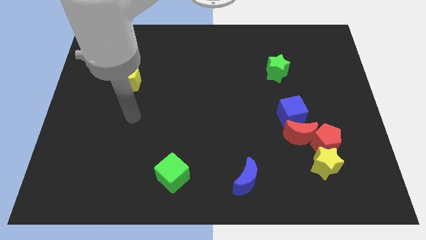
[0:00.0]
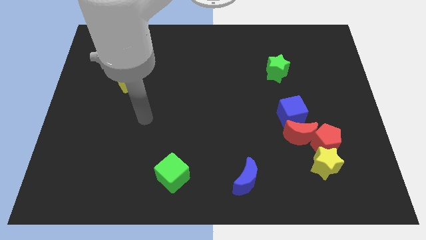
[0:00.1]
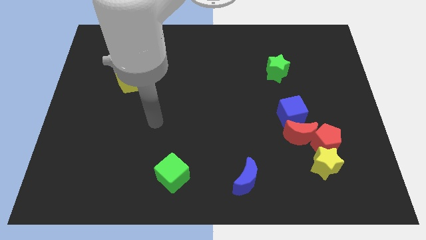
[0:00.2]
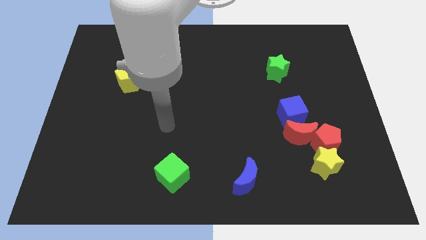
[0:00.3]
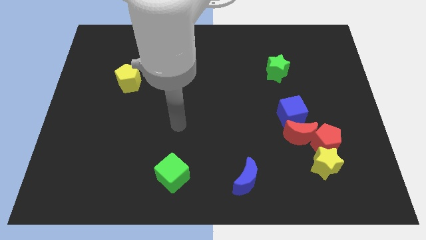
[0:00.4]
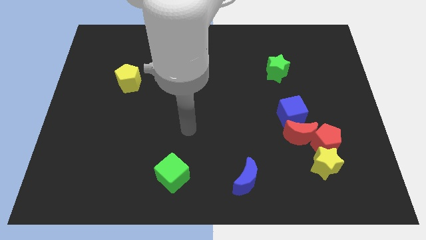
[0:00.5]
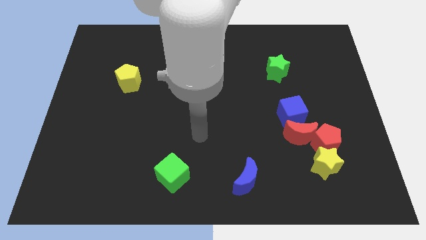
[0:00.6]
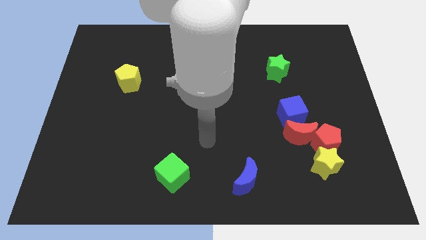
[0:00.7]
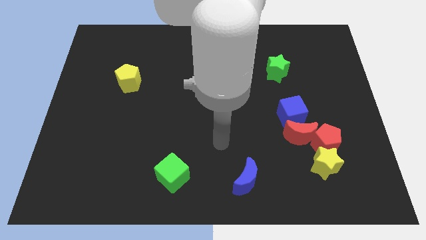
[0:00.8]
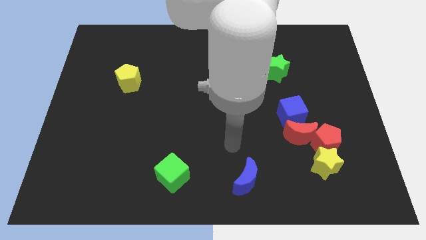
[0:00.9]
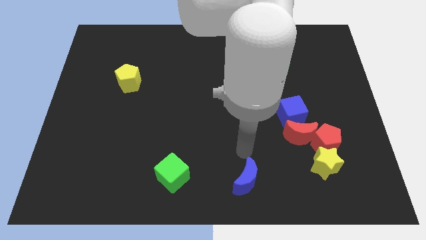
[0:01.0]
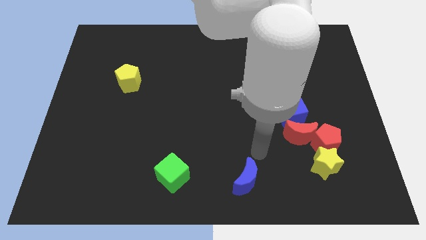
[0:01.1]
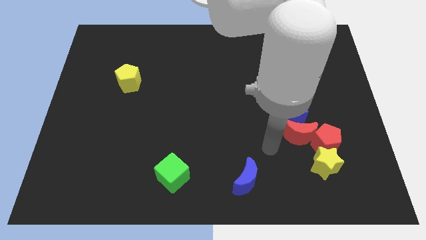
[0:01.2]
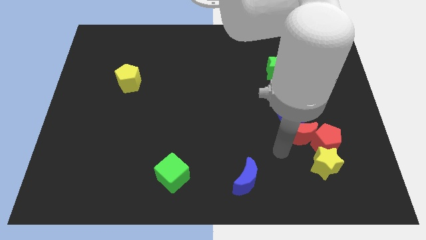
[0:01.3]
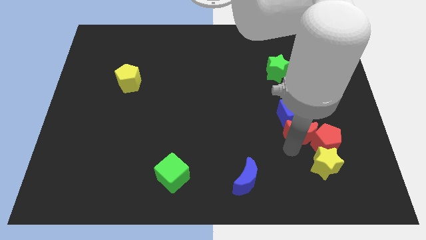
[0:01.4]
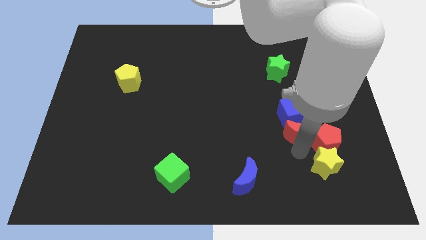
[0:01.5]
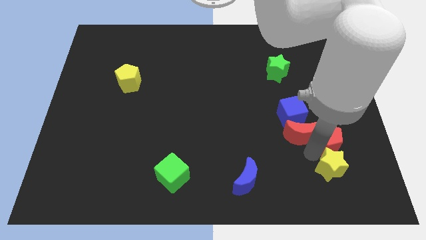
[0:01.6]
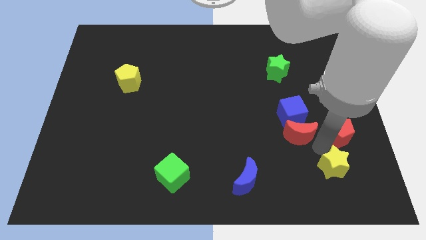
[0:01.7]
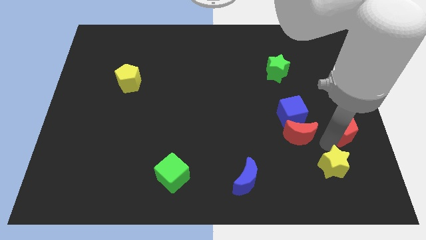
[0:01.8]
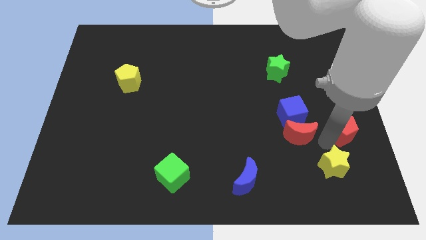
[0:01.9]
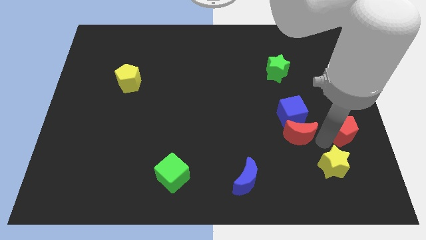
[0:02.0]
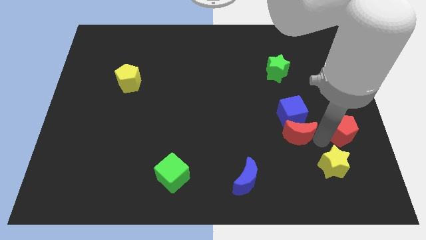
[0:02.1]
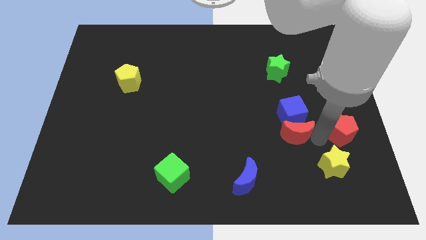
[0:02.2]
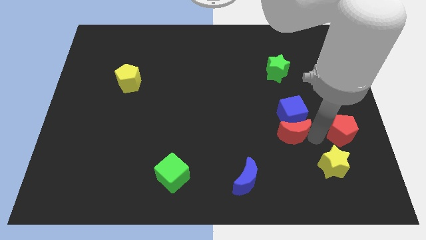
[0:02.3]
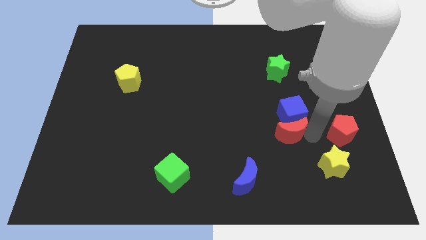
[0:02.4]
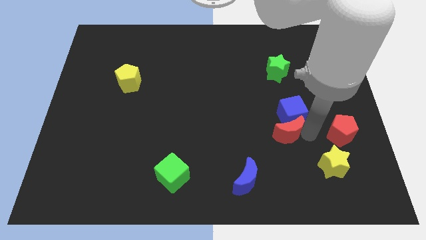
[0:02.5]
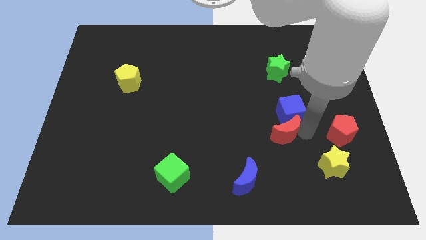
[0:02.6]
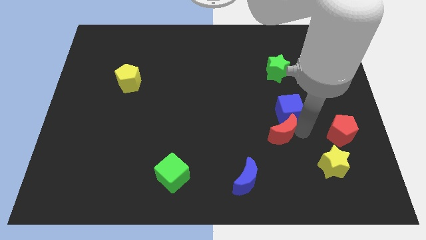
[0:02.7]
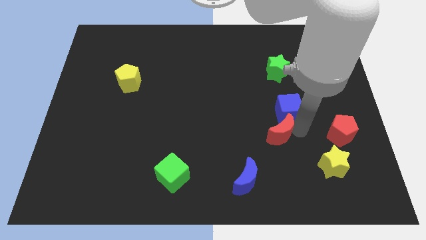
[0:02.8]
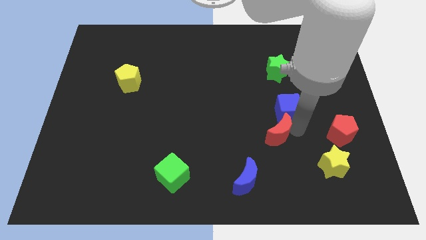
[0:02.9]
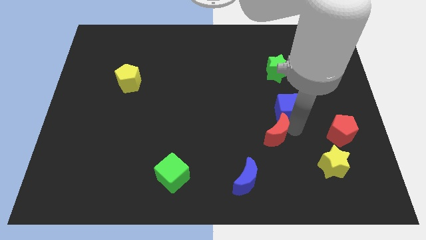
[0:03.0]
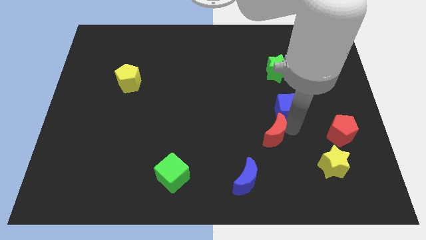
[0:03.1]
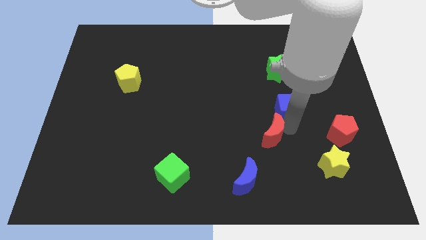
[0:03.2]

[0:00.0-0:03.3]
pull the red moon apart from the red pentagon, blue cube, and yellow star

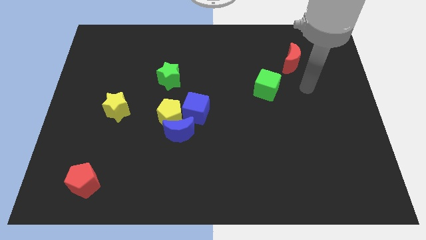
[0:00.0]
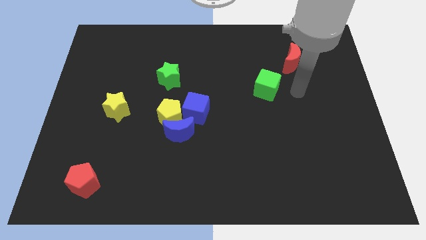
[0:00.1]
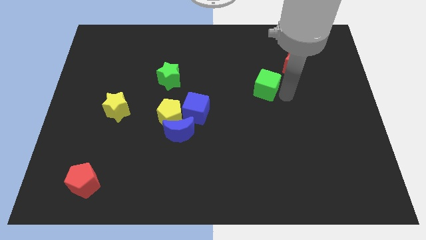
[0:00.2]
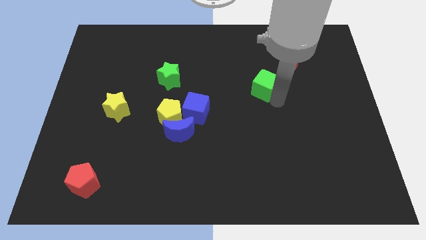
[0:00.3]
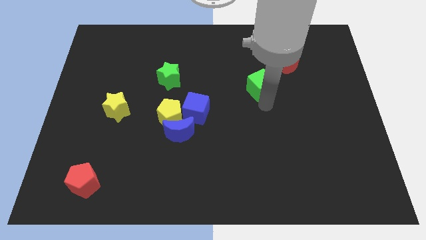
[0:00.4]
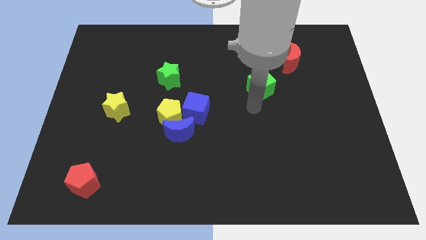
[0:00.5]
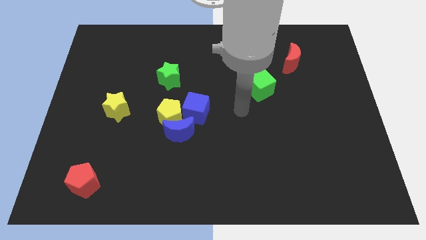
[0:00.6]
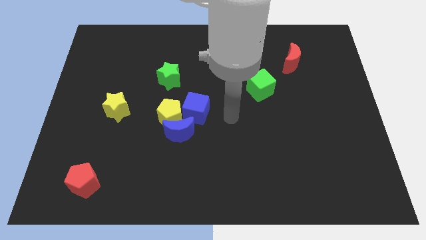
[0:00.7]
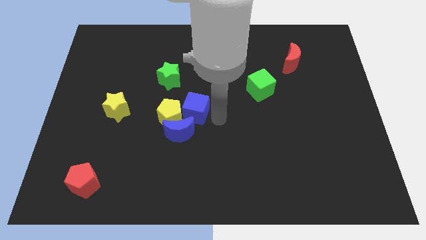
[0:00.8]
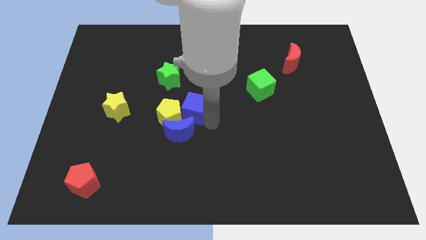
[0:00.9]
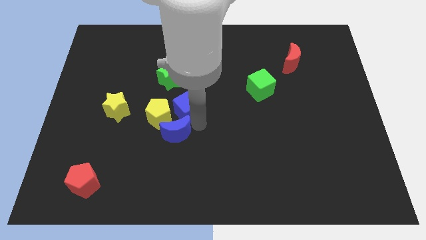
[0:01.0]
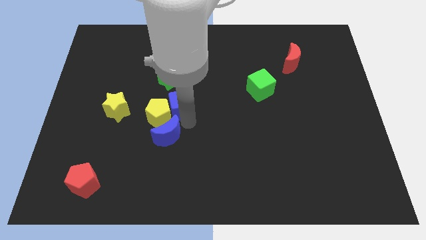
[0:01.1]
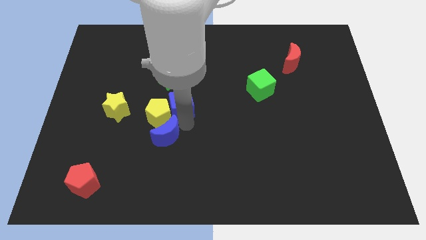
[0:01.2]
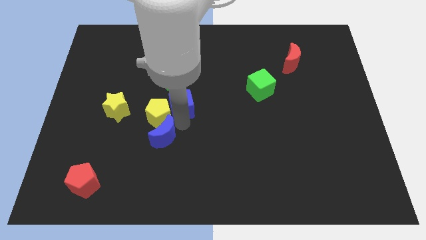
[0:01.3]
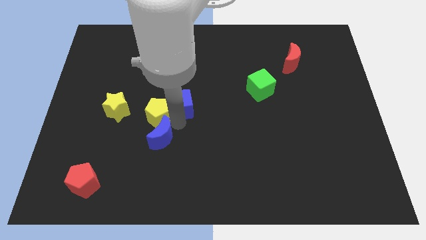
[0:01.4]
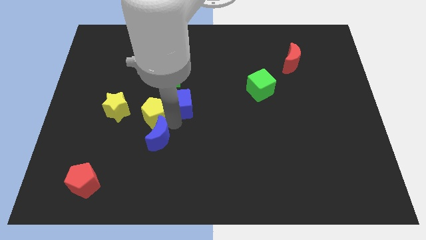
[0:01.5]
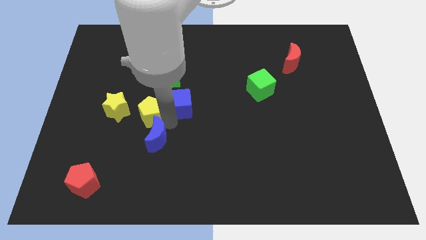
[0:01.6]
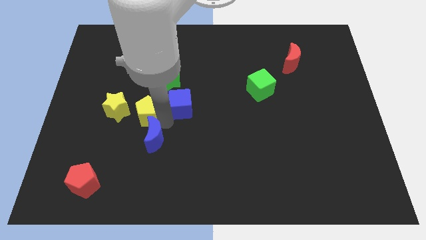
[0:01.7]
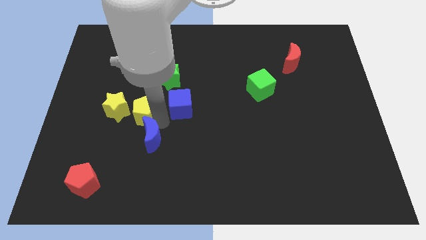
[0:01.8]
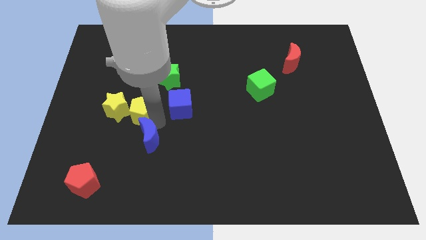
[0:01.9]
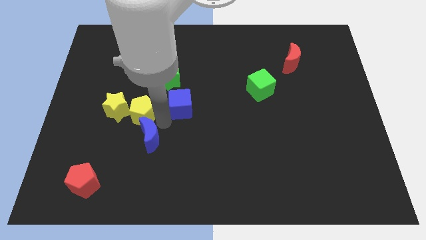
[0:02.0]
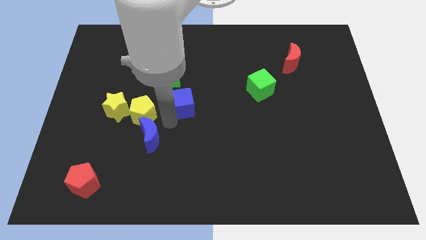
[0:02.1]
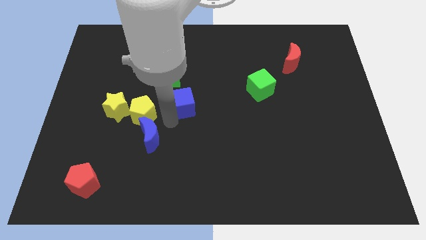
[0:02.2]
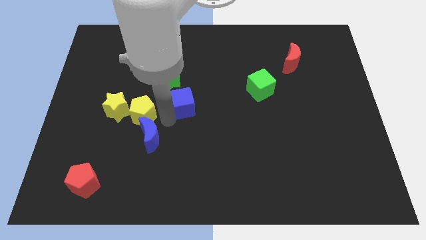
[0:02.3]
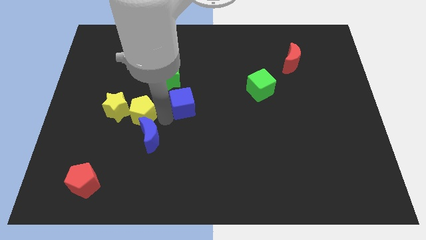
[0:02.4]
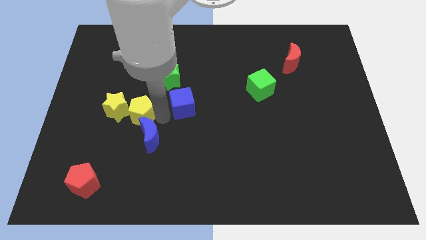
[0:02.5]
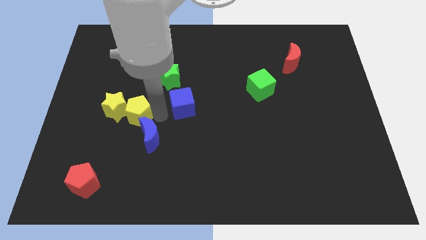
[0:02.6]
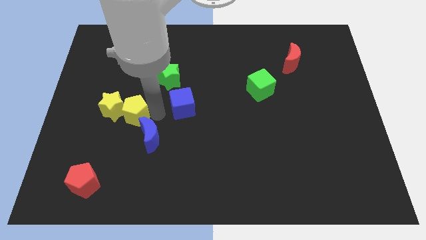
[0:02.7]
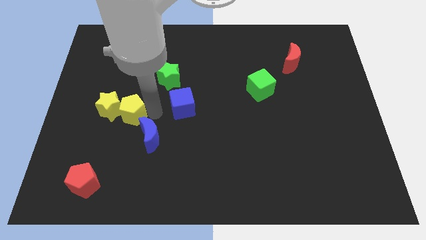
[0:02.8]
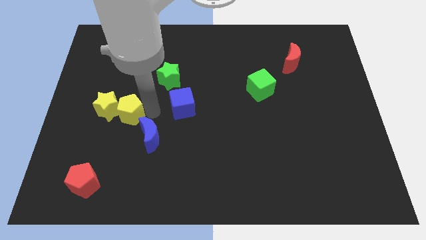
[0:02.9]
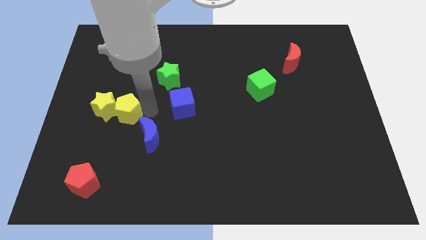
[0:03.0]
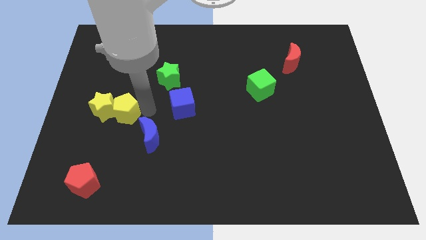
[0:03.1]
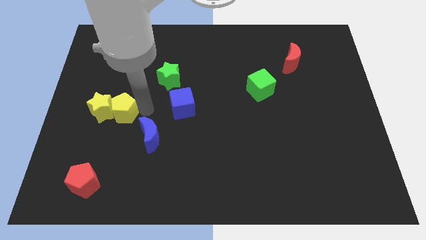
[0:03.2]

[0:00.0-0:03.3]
pull the yellow pentagon apart from the blue moon and blue cube

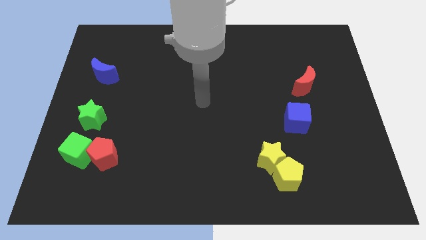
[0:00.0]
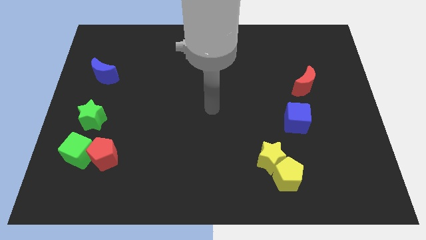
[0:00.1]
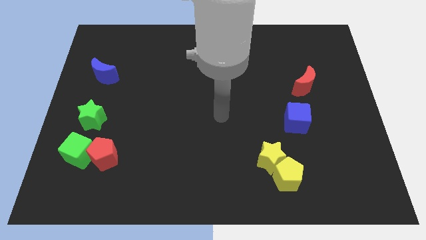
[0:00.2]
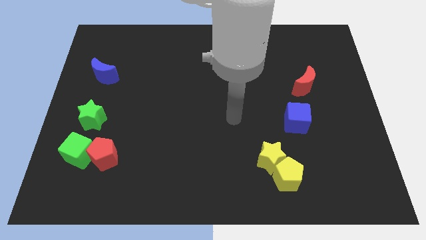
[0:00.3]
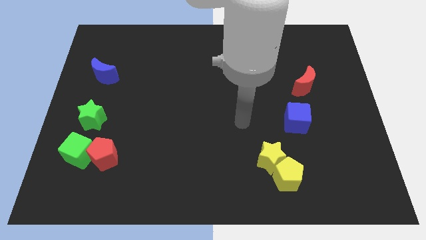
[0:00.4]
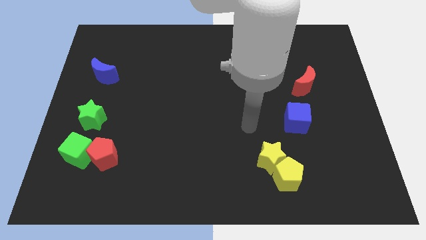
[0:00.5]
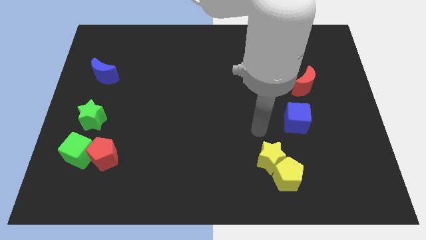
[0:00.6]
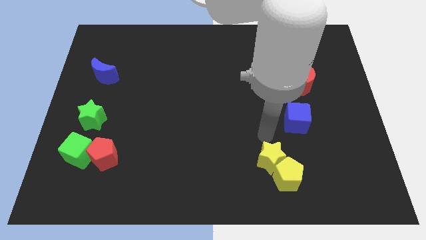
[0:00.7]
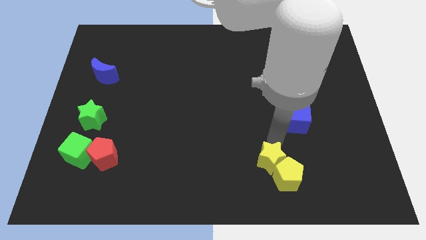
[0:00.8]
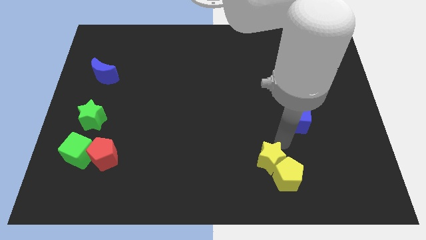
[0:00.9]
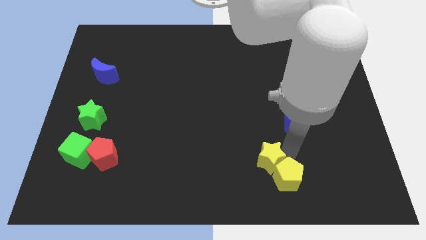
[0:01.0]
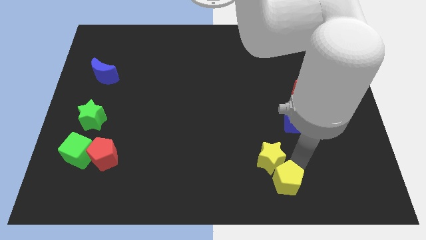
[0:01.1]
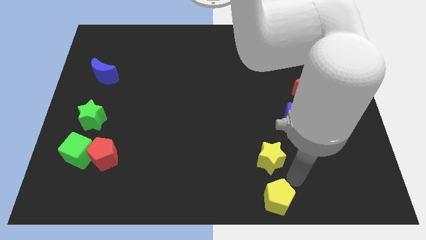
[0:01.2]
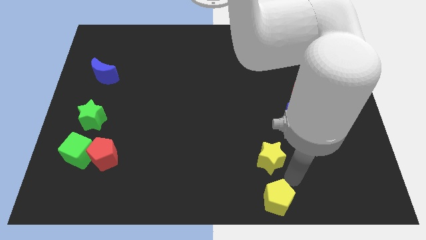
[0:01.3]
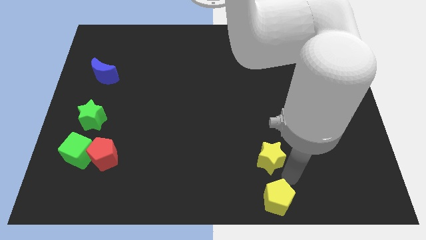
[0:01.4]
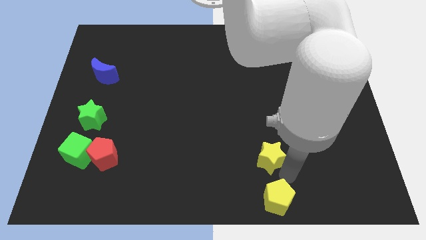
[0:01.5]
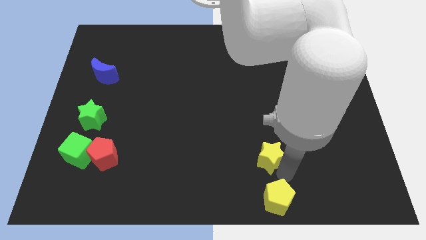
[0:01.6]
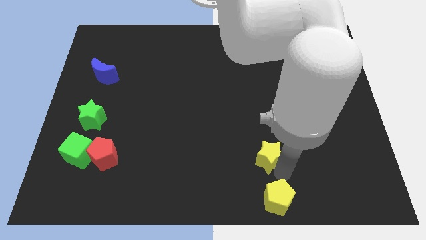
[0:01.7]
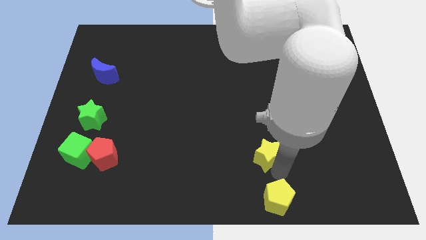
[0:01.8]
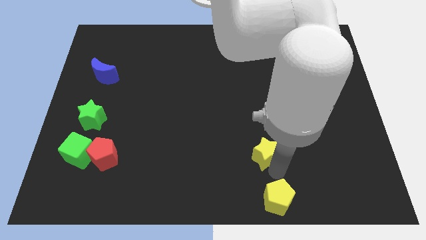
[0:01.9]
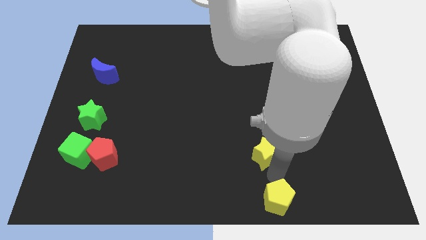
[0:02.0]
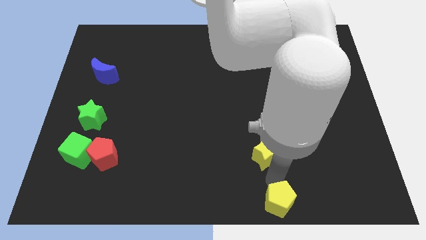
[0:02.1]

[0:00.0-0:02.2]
move the yellow star away from the yellow pentagon

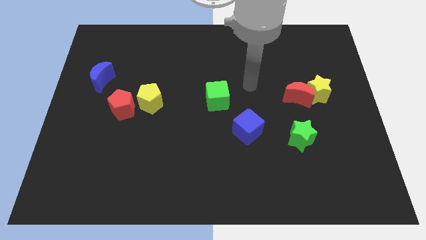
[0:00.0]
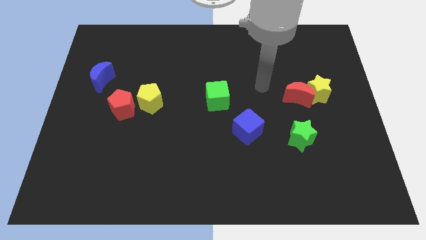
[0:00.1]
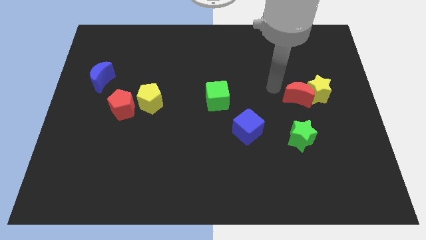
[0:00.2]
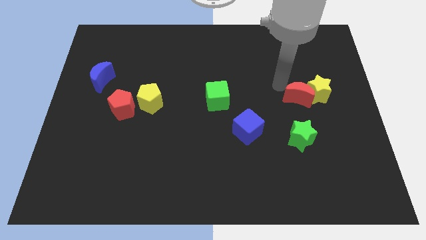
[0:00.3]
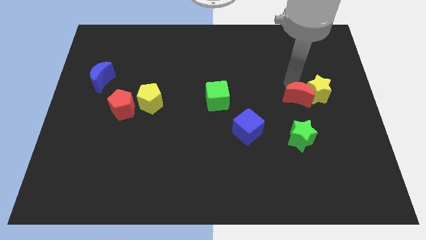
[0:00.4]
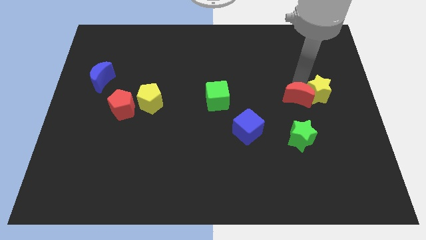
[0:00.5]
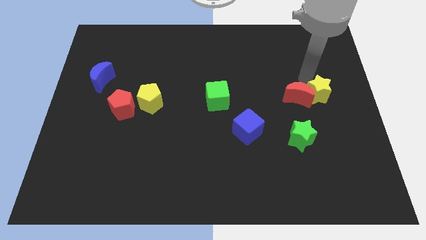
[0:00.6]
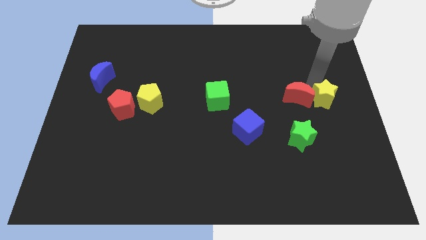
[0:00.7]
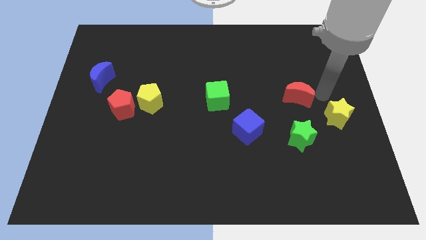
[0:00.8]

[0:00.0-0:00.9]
separate the red moon from the yellow star
